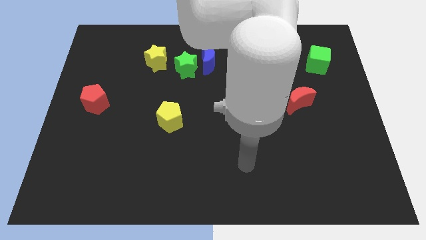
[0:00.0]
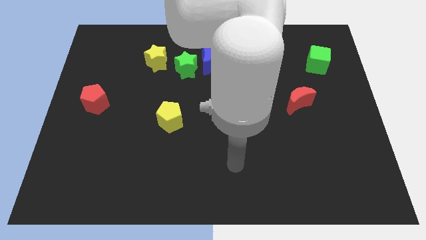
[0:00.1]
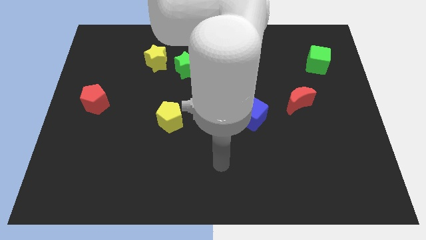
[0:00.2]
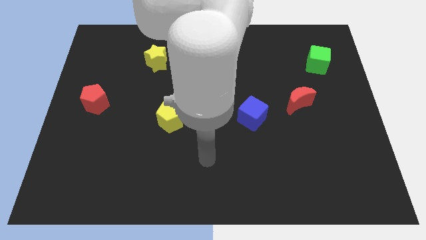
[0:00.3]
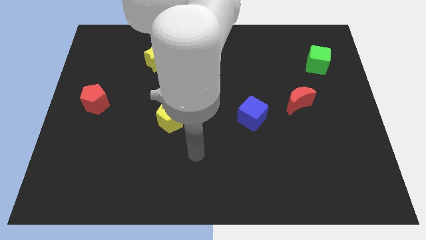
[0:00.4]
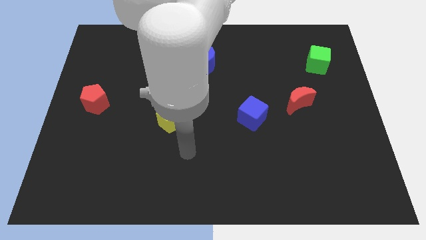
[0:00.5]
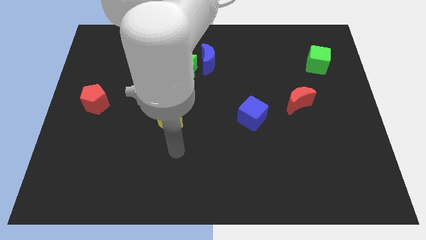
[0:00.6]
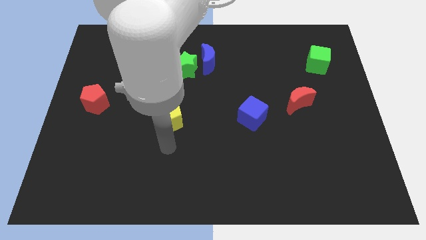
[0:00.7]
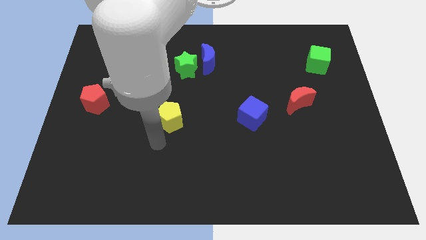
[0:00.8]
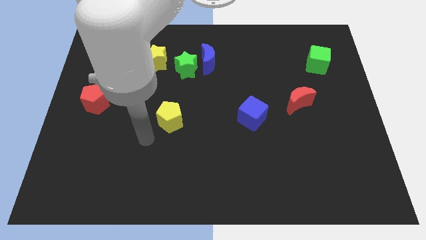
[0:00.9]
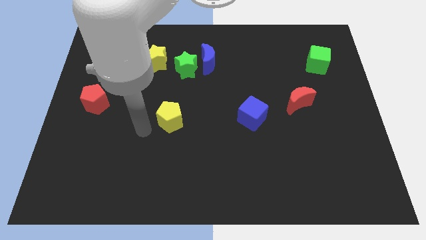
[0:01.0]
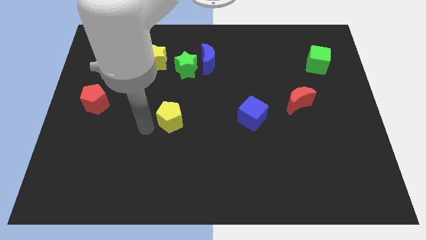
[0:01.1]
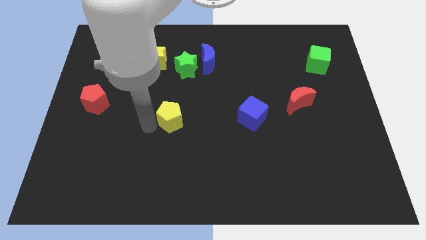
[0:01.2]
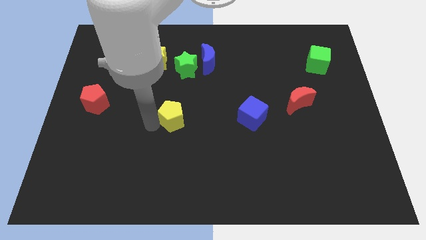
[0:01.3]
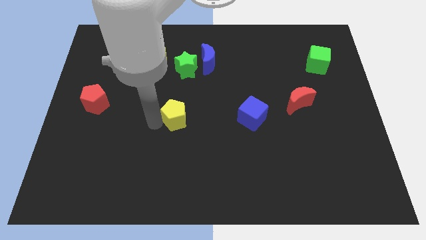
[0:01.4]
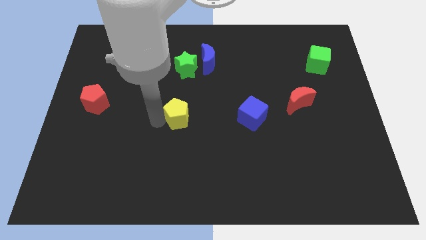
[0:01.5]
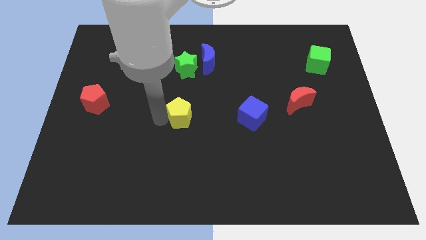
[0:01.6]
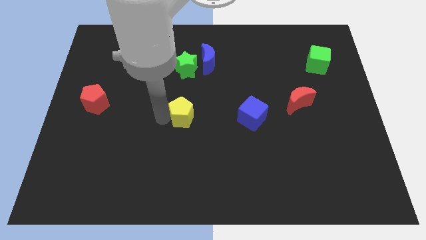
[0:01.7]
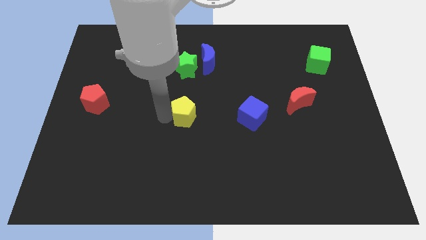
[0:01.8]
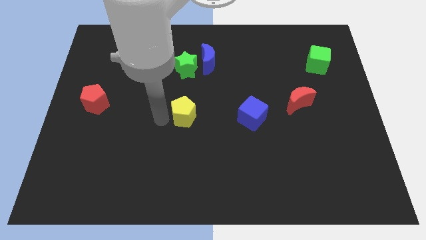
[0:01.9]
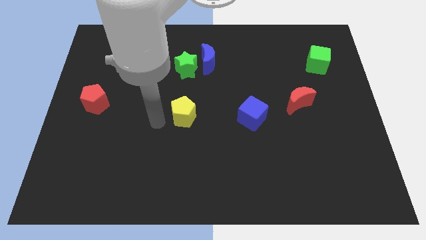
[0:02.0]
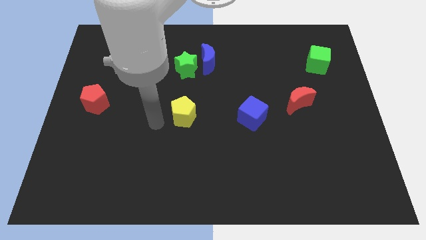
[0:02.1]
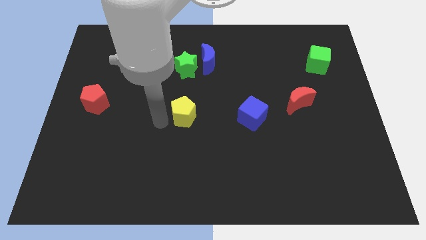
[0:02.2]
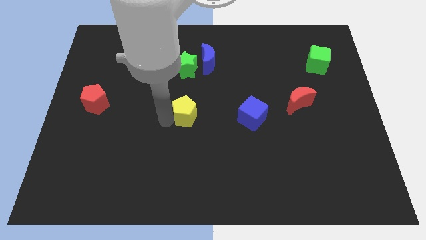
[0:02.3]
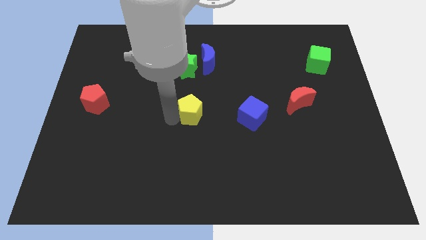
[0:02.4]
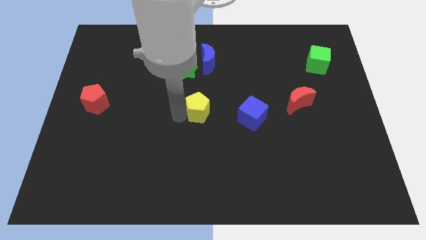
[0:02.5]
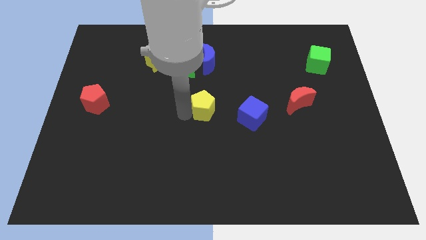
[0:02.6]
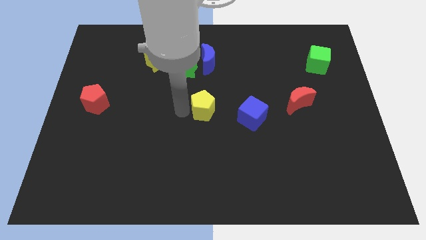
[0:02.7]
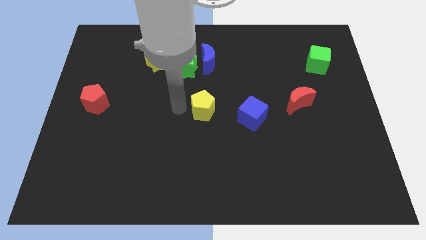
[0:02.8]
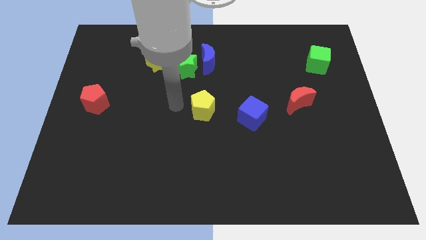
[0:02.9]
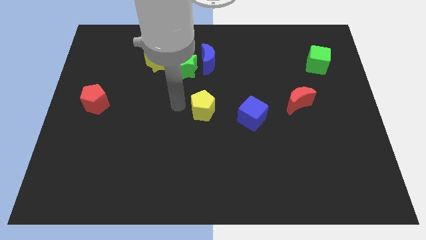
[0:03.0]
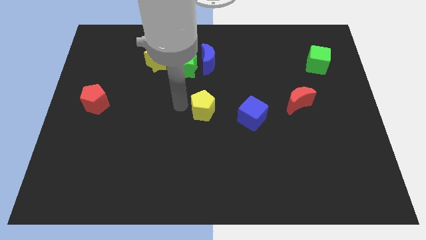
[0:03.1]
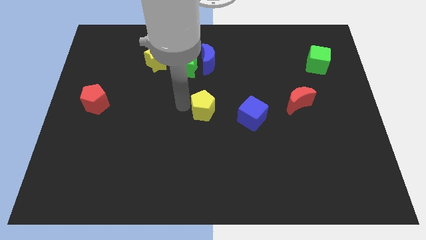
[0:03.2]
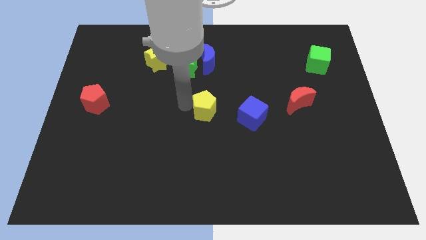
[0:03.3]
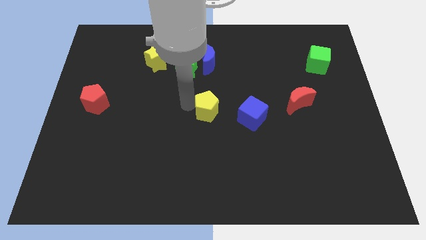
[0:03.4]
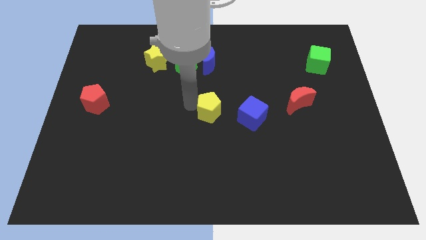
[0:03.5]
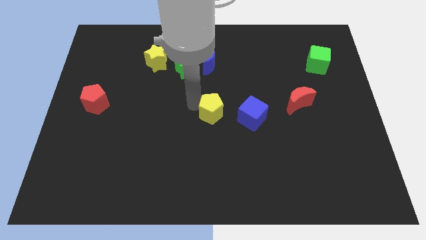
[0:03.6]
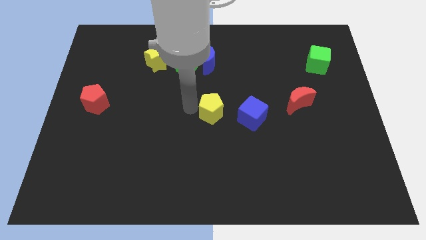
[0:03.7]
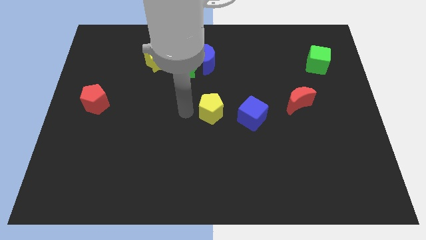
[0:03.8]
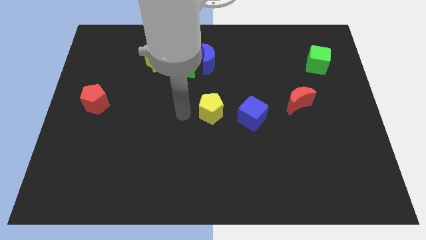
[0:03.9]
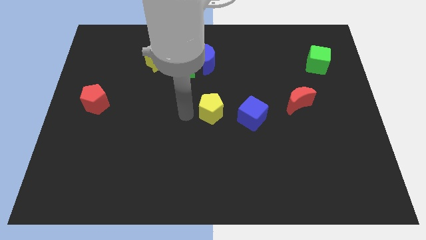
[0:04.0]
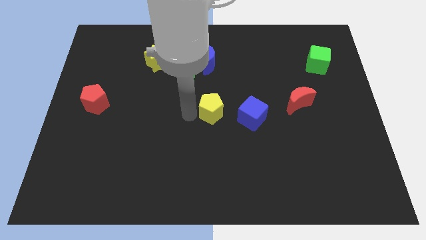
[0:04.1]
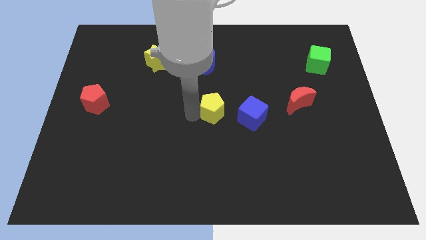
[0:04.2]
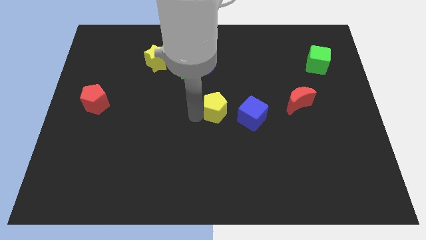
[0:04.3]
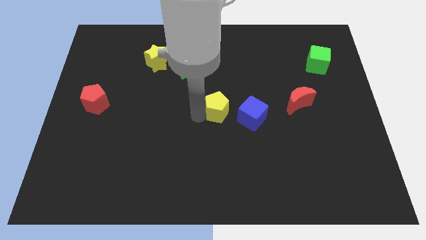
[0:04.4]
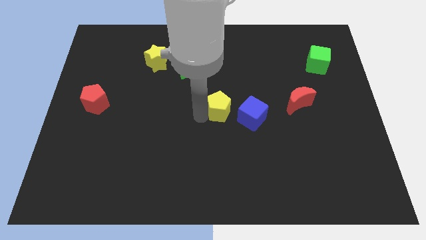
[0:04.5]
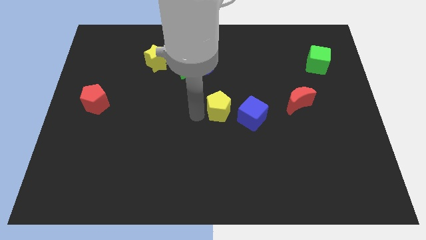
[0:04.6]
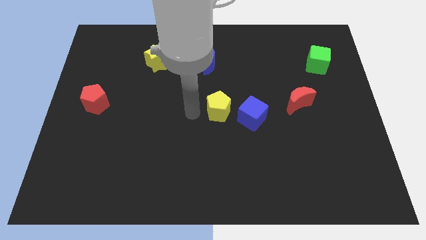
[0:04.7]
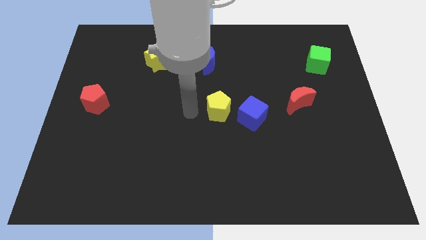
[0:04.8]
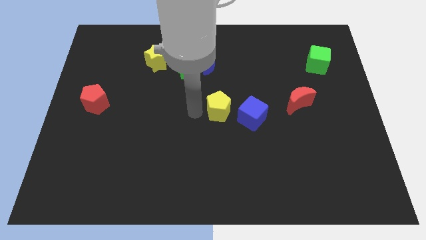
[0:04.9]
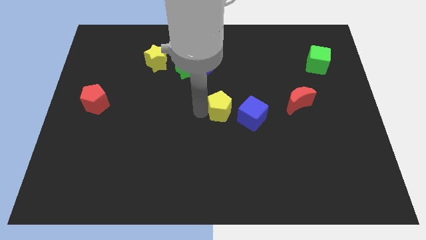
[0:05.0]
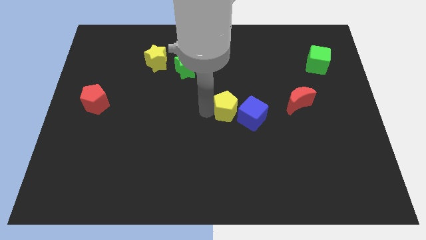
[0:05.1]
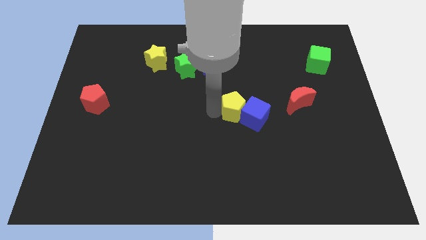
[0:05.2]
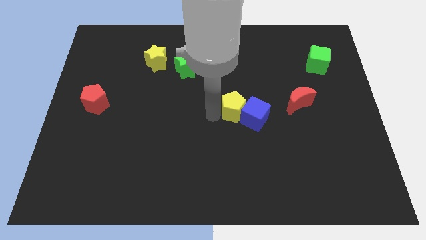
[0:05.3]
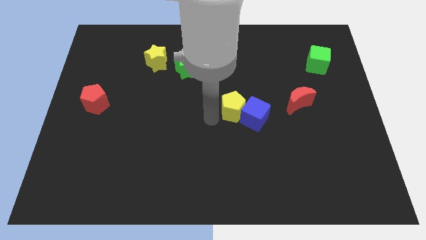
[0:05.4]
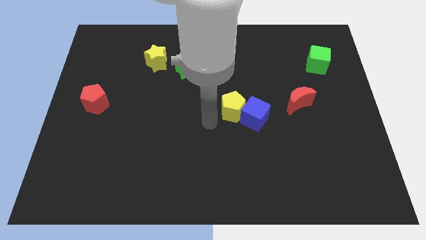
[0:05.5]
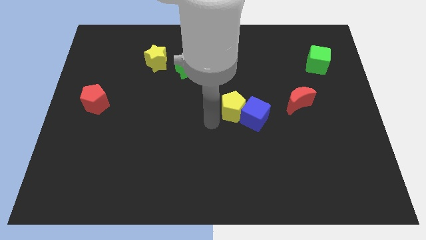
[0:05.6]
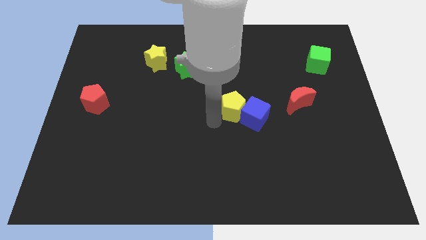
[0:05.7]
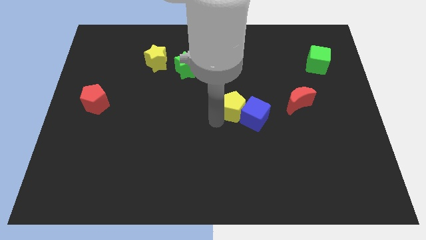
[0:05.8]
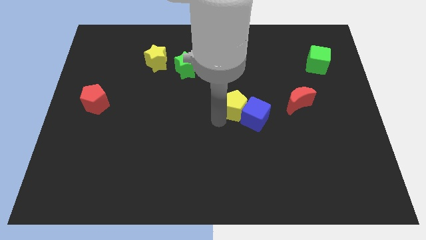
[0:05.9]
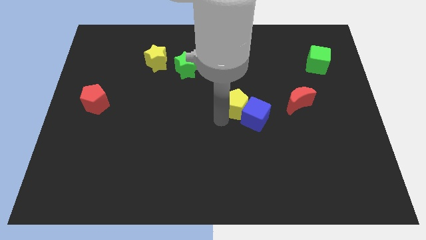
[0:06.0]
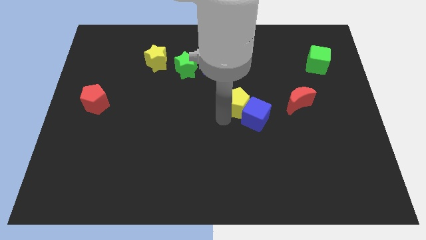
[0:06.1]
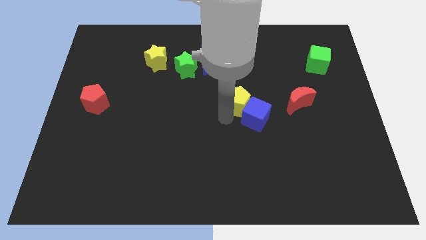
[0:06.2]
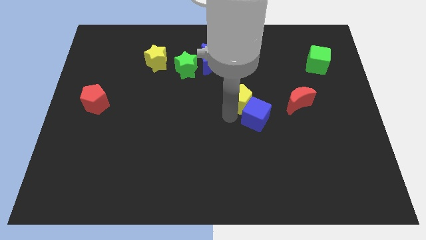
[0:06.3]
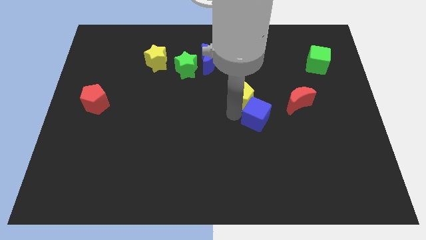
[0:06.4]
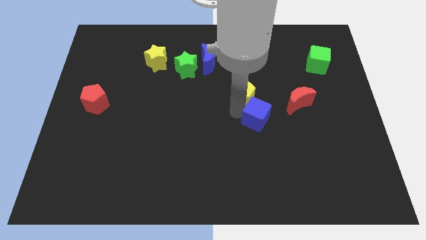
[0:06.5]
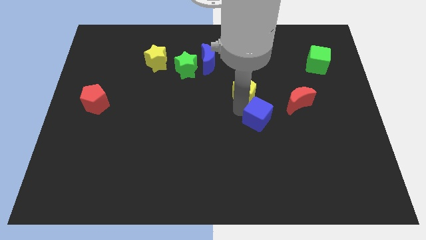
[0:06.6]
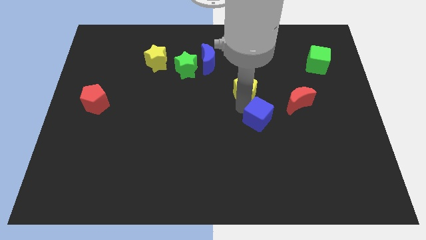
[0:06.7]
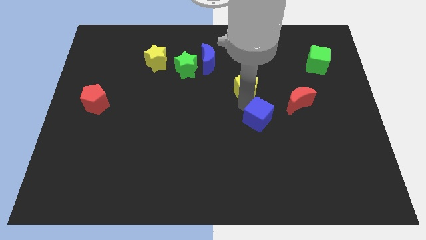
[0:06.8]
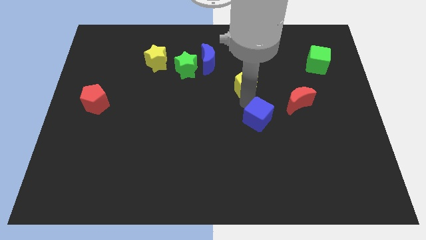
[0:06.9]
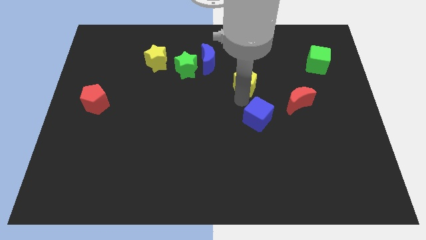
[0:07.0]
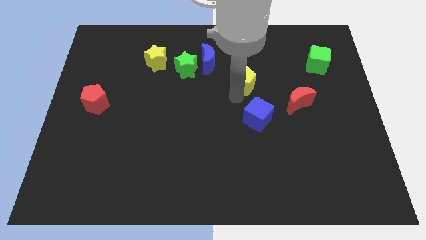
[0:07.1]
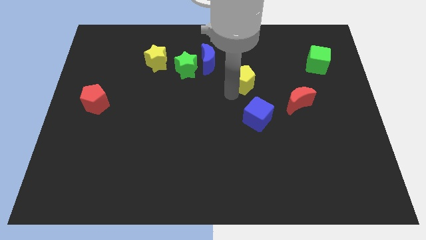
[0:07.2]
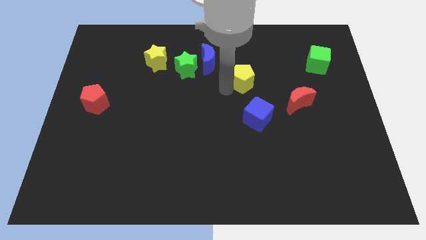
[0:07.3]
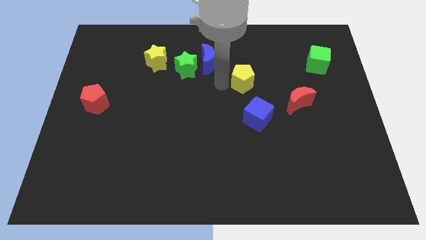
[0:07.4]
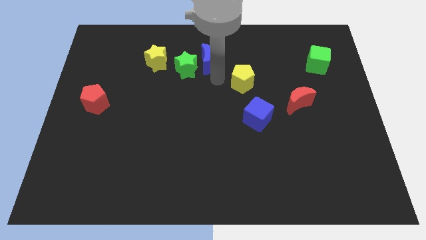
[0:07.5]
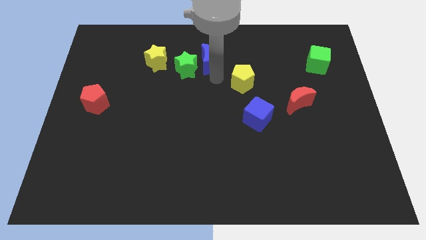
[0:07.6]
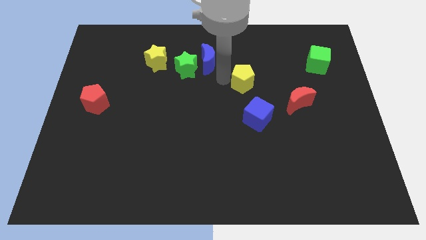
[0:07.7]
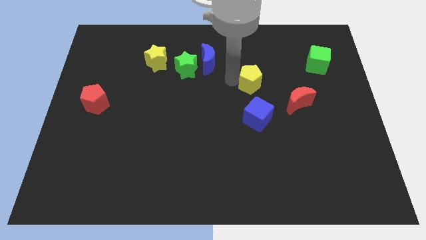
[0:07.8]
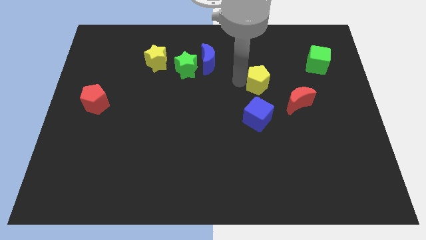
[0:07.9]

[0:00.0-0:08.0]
move the yellow pentagon to the top left side of the red moon
